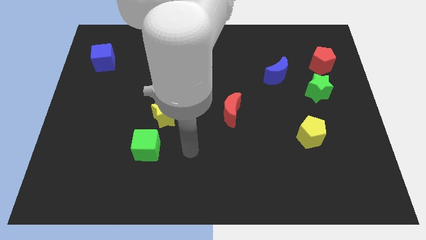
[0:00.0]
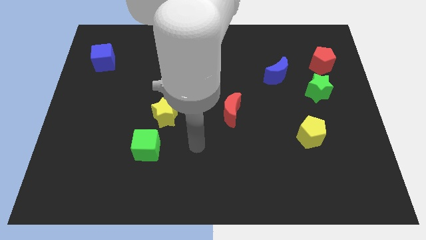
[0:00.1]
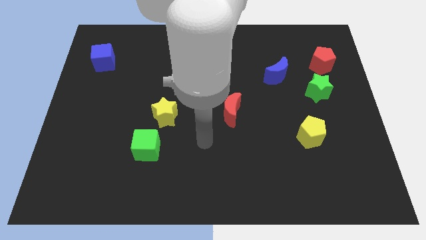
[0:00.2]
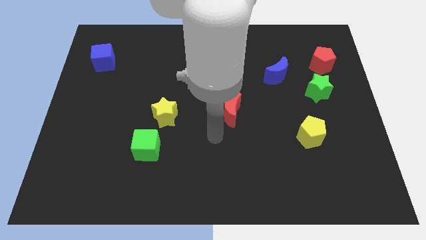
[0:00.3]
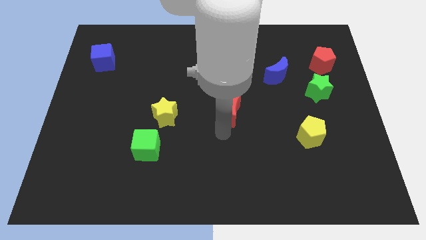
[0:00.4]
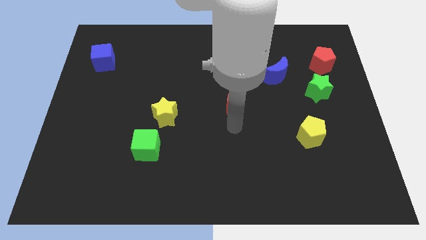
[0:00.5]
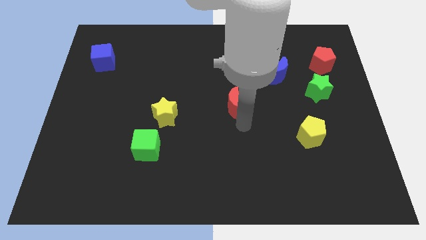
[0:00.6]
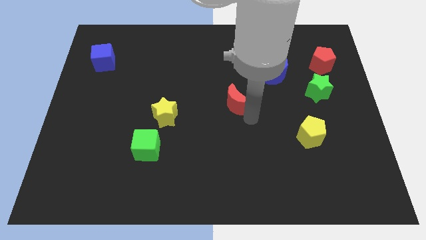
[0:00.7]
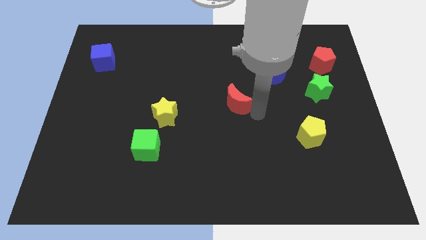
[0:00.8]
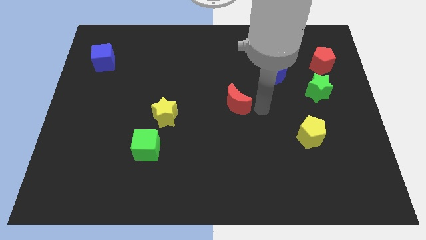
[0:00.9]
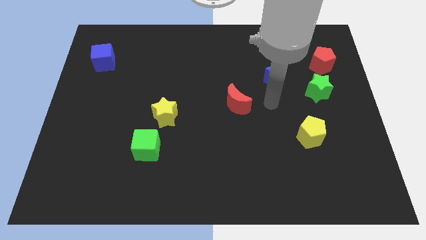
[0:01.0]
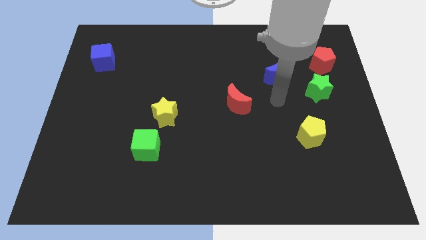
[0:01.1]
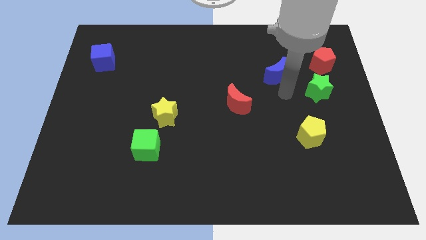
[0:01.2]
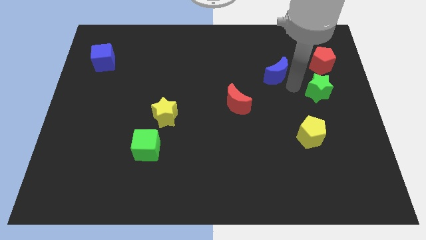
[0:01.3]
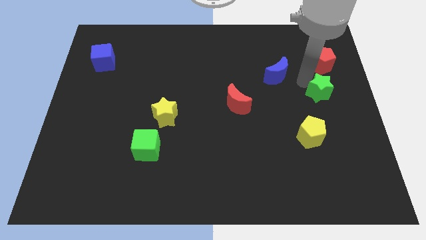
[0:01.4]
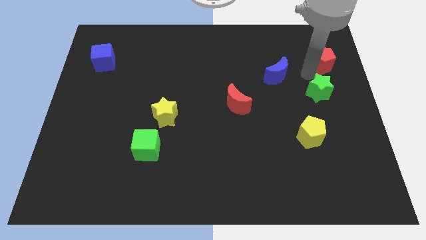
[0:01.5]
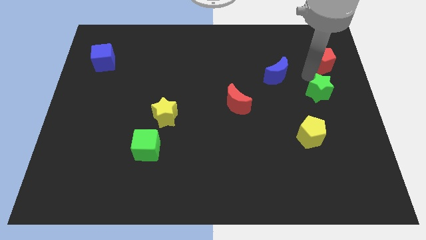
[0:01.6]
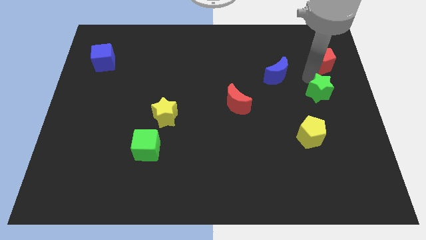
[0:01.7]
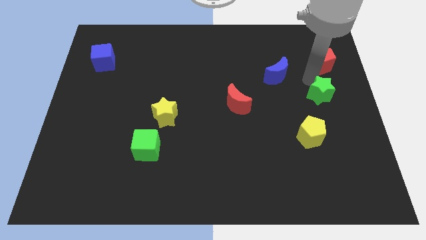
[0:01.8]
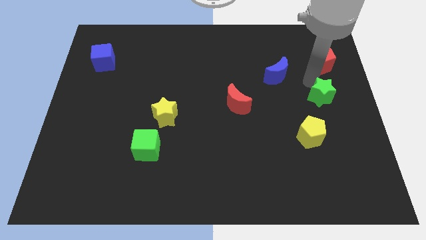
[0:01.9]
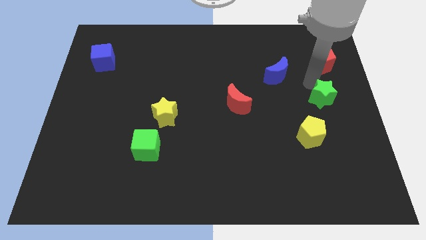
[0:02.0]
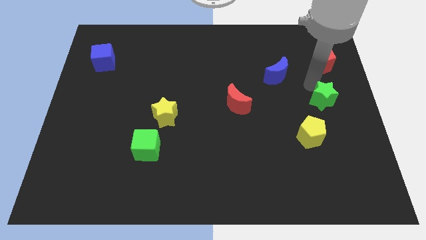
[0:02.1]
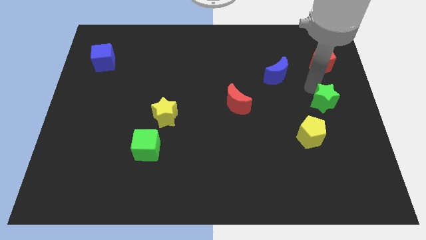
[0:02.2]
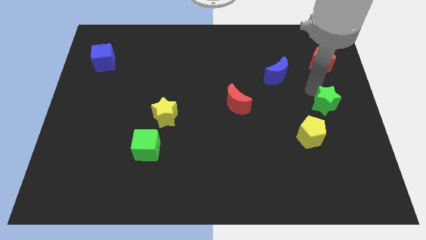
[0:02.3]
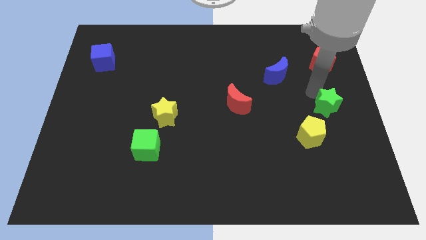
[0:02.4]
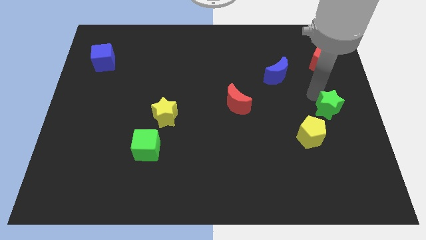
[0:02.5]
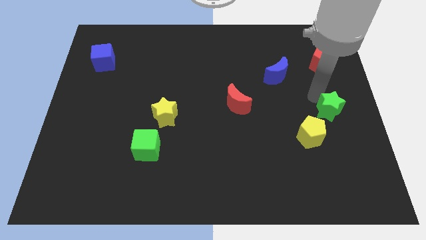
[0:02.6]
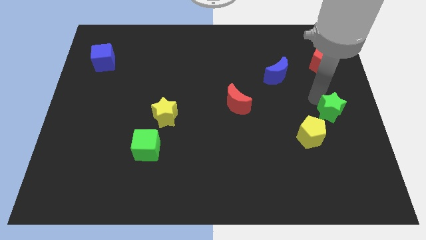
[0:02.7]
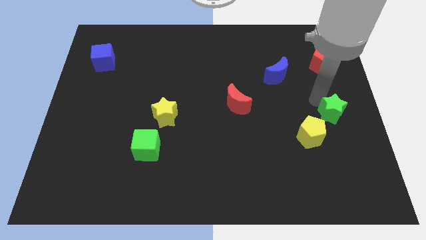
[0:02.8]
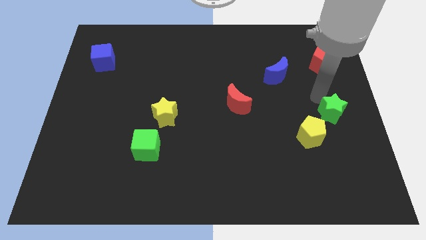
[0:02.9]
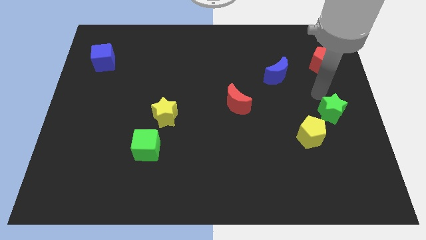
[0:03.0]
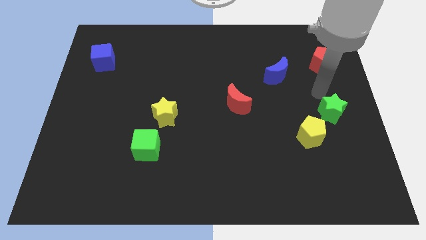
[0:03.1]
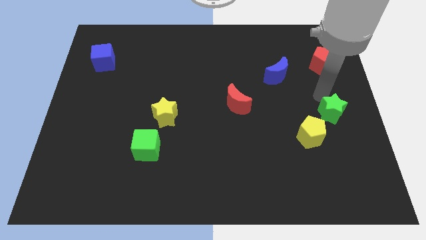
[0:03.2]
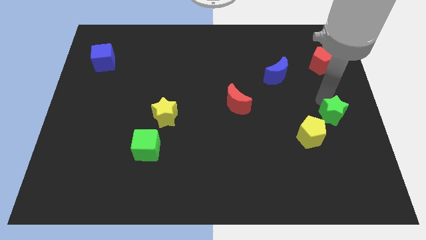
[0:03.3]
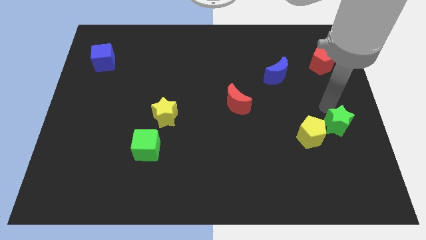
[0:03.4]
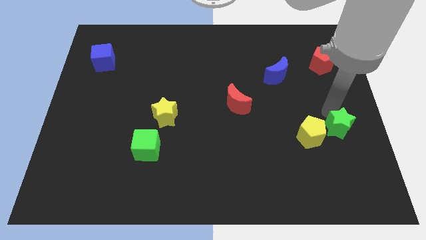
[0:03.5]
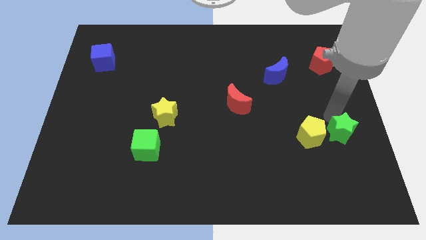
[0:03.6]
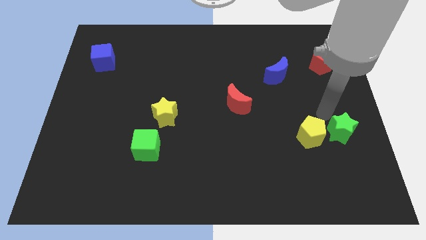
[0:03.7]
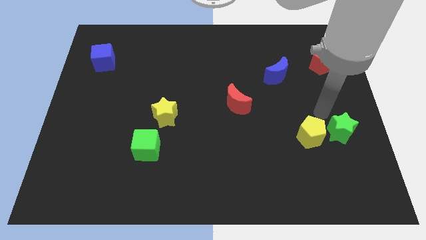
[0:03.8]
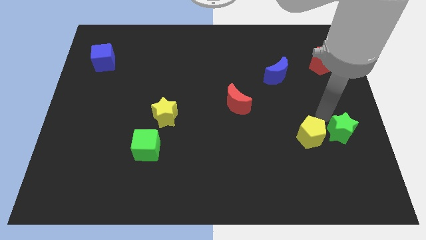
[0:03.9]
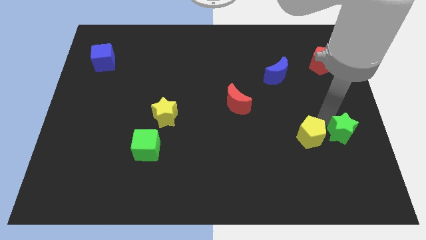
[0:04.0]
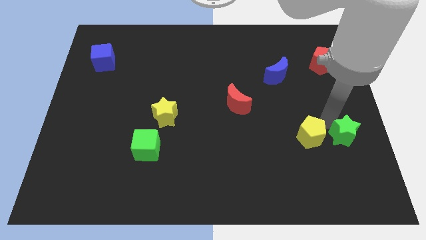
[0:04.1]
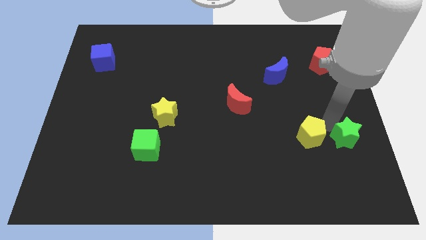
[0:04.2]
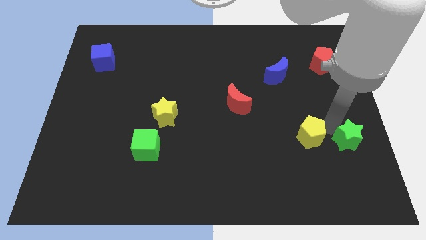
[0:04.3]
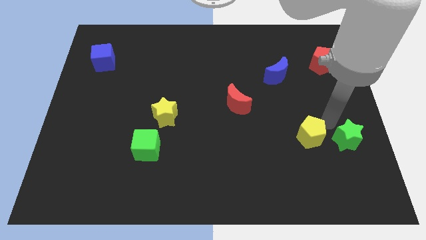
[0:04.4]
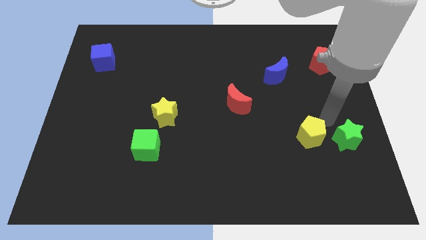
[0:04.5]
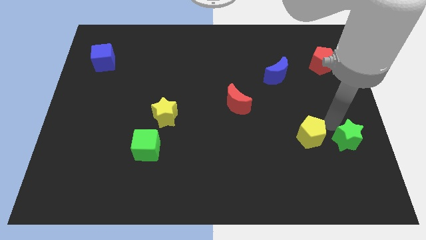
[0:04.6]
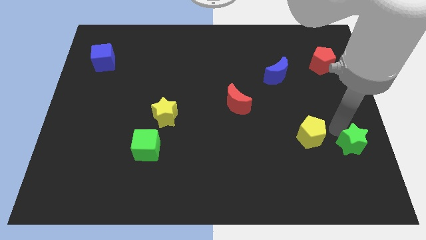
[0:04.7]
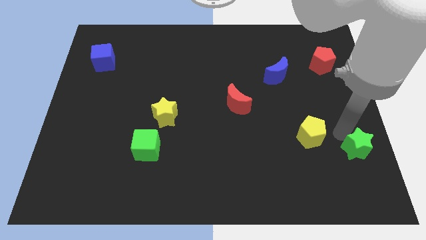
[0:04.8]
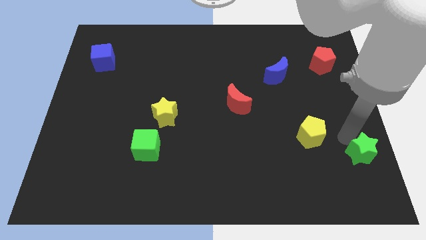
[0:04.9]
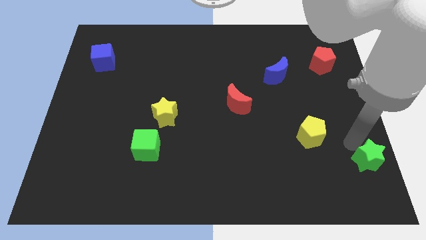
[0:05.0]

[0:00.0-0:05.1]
slide the green star to the bottom right

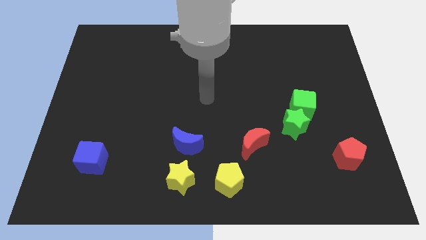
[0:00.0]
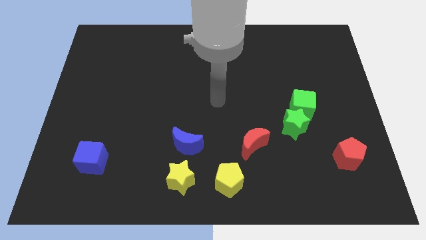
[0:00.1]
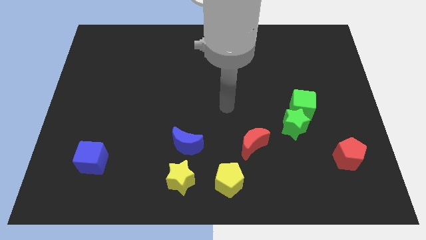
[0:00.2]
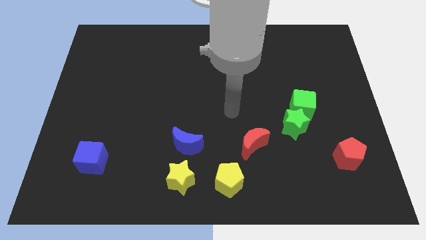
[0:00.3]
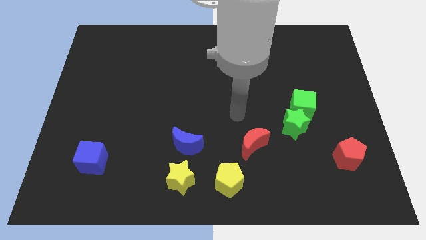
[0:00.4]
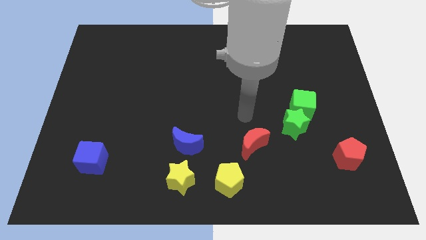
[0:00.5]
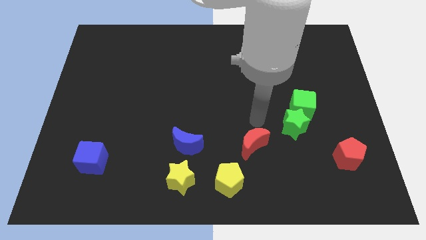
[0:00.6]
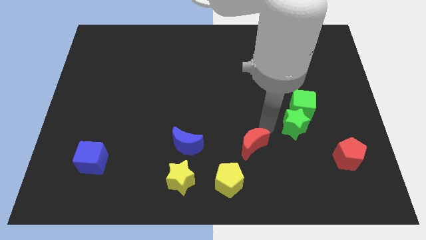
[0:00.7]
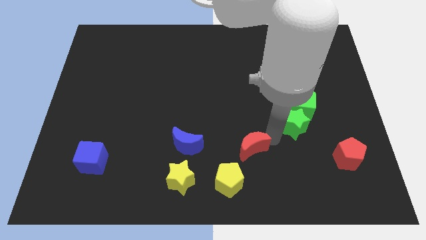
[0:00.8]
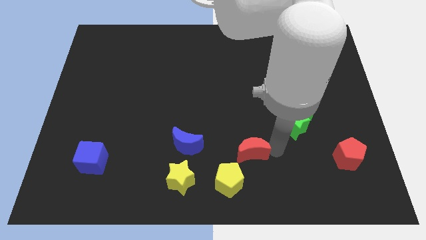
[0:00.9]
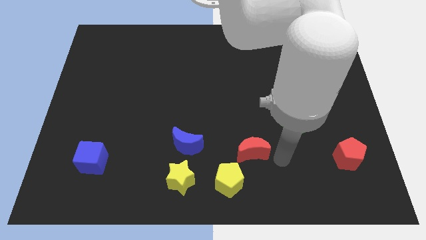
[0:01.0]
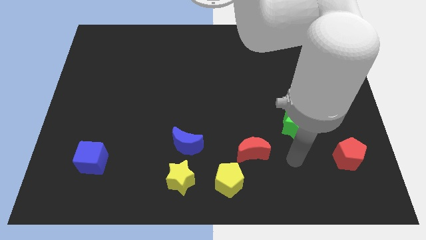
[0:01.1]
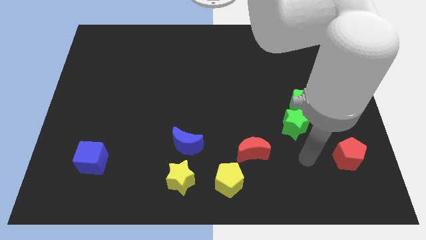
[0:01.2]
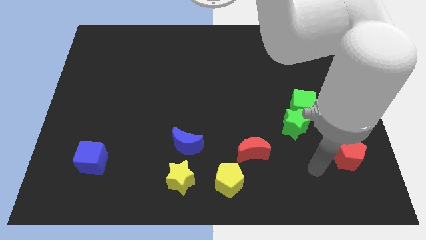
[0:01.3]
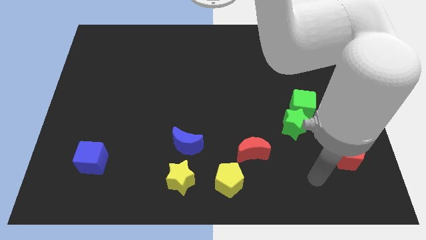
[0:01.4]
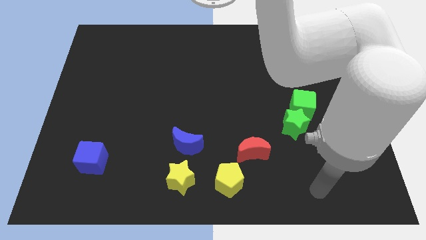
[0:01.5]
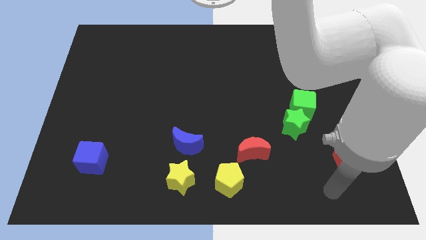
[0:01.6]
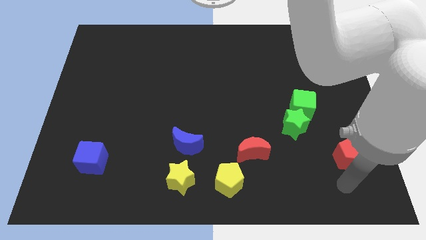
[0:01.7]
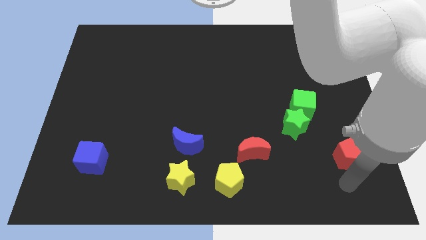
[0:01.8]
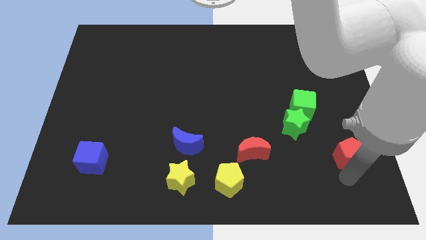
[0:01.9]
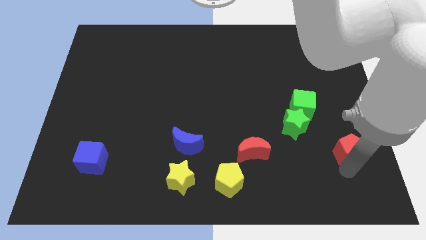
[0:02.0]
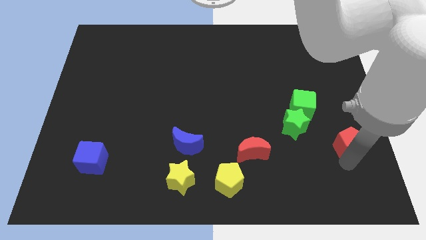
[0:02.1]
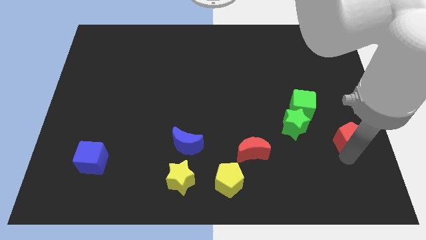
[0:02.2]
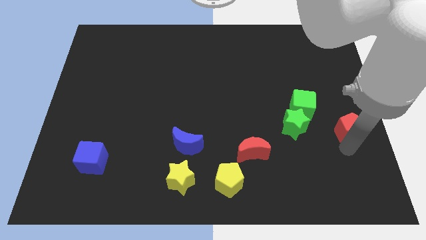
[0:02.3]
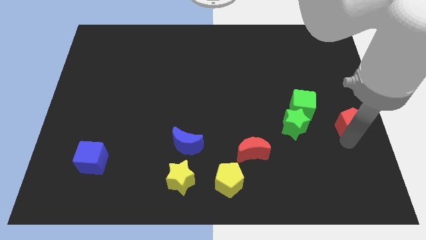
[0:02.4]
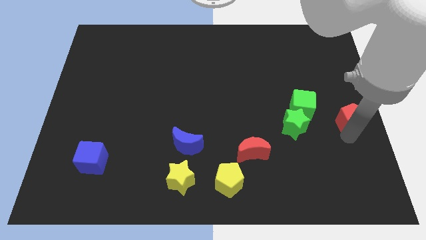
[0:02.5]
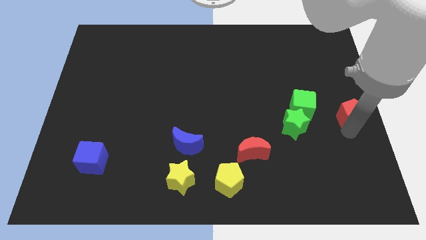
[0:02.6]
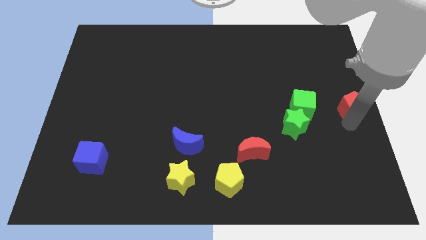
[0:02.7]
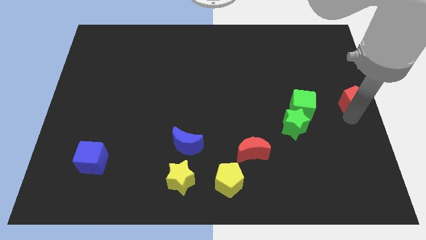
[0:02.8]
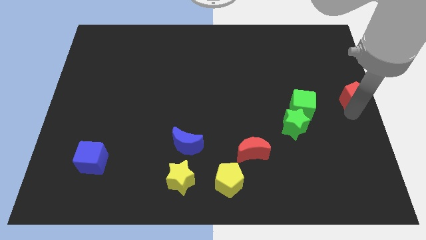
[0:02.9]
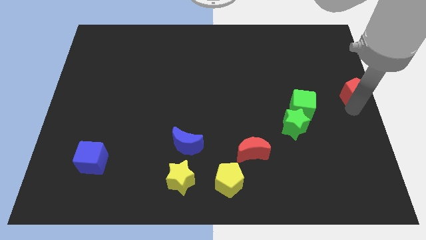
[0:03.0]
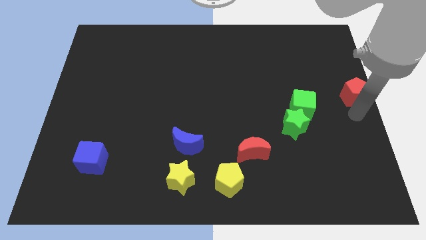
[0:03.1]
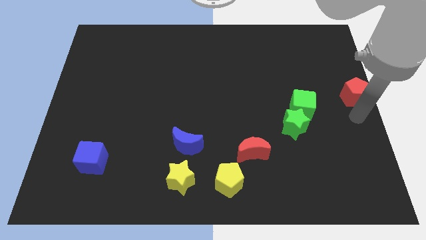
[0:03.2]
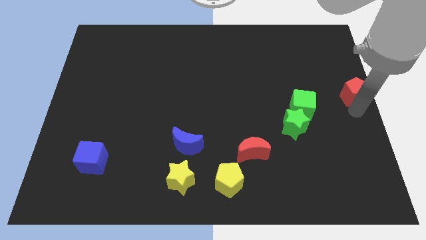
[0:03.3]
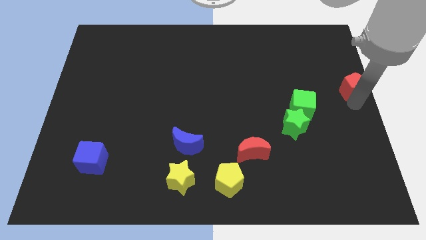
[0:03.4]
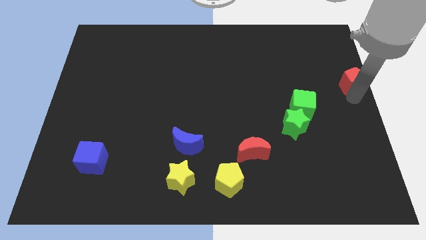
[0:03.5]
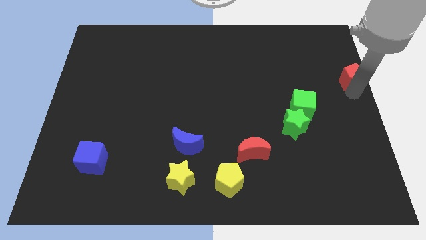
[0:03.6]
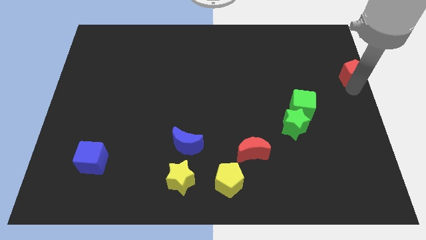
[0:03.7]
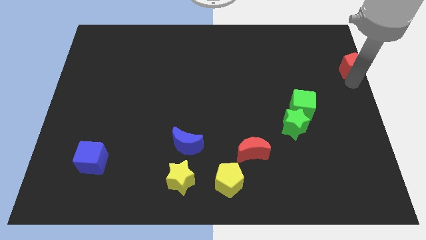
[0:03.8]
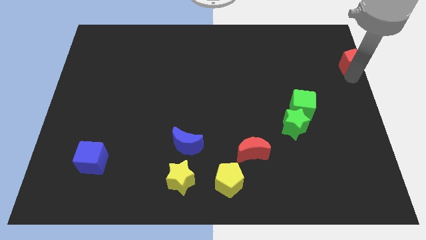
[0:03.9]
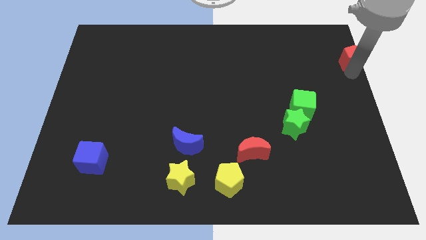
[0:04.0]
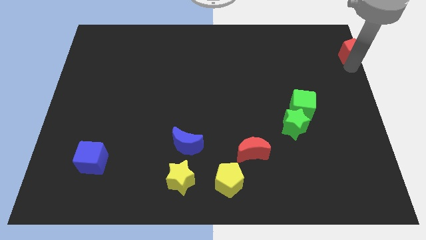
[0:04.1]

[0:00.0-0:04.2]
push the red pentagon to the top right of the board
